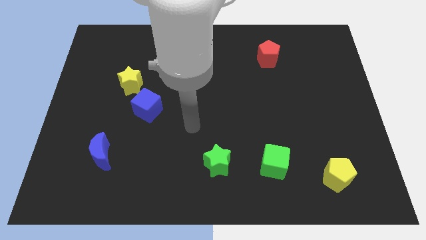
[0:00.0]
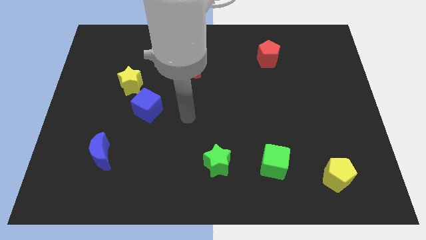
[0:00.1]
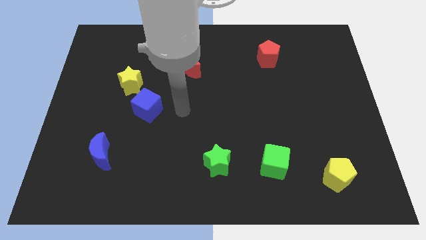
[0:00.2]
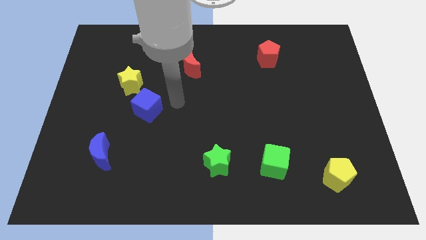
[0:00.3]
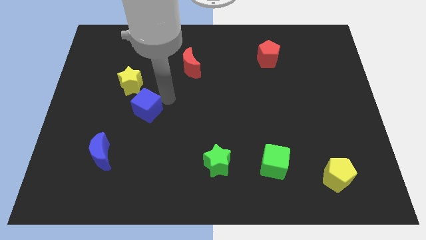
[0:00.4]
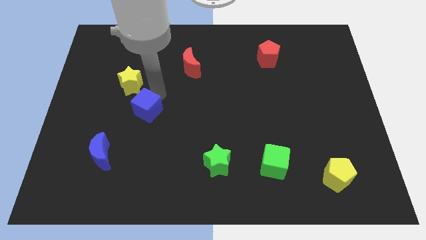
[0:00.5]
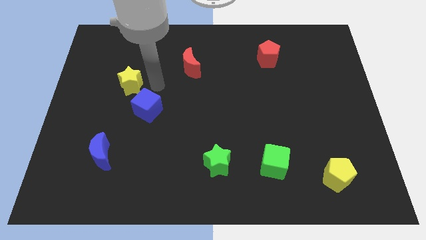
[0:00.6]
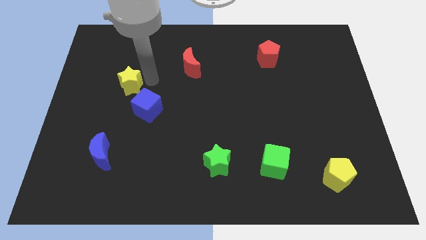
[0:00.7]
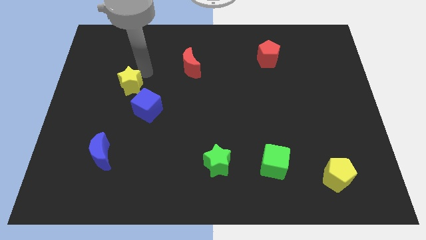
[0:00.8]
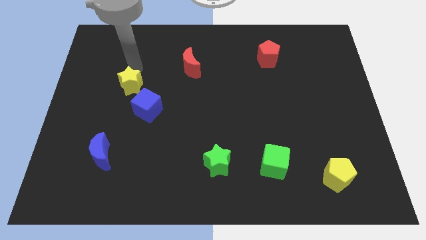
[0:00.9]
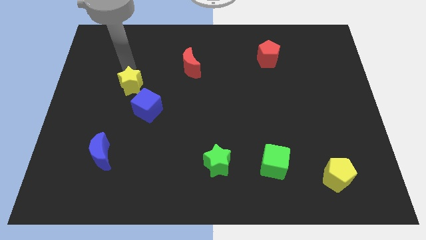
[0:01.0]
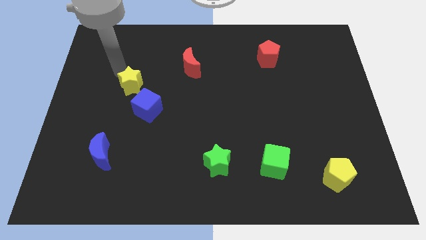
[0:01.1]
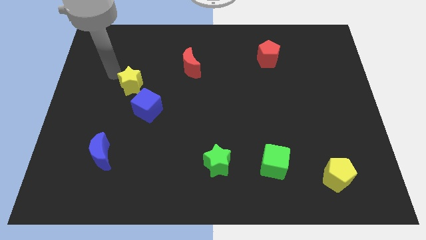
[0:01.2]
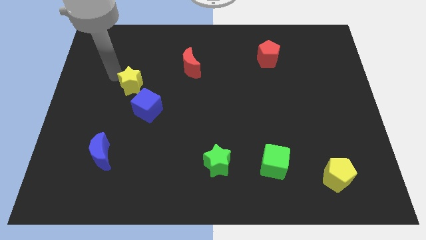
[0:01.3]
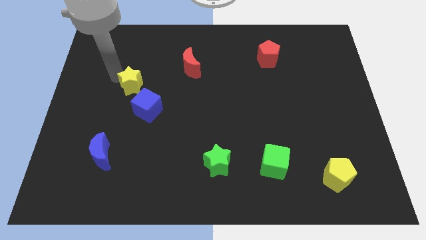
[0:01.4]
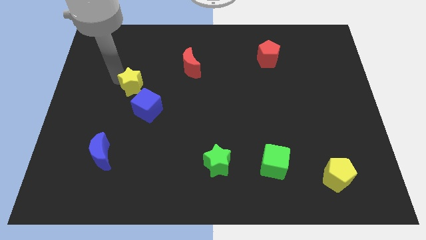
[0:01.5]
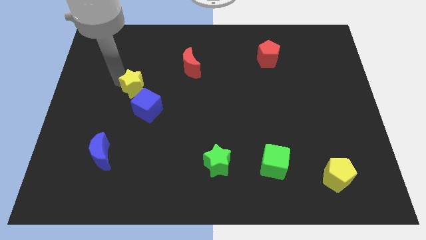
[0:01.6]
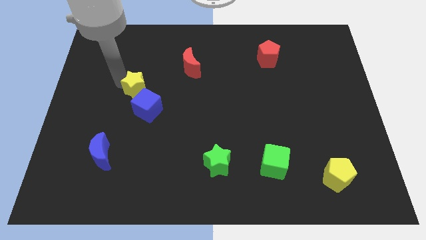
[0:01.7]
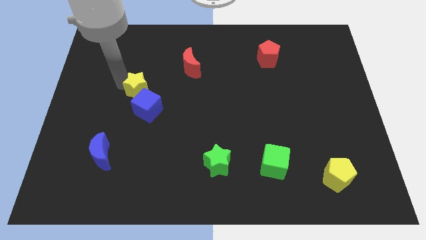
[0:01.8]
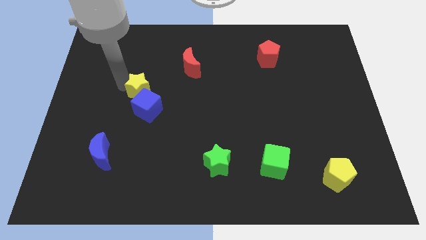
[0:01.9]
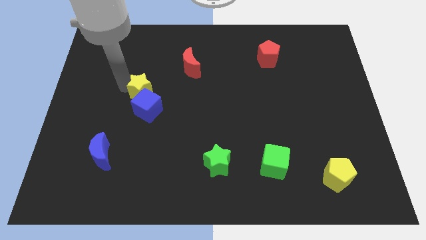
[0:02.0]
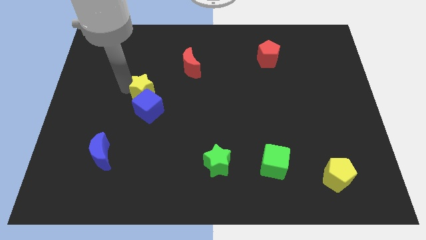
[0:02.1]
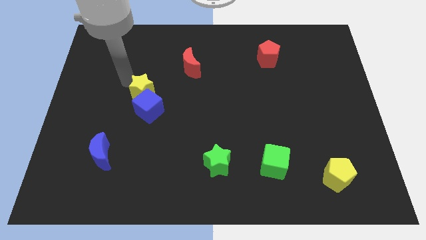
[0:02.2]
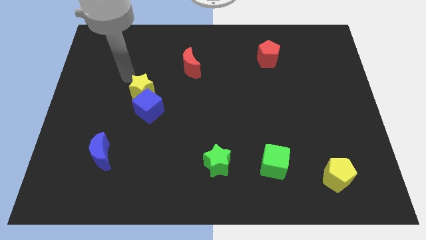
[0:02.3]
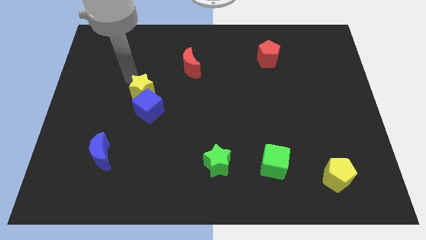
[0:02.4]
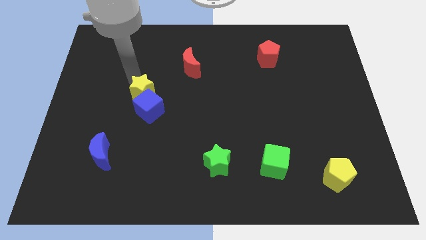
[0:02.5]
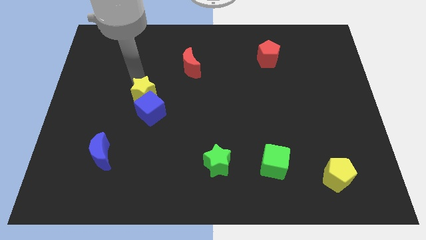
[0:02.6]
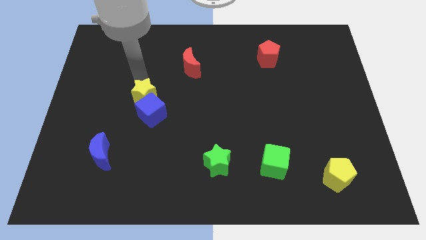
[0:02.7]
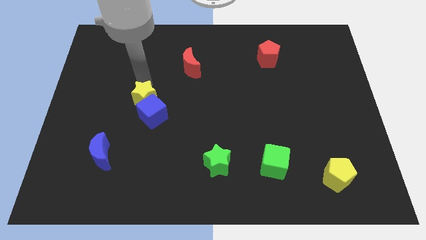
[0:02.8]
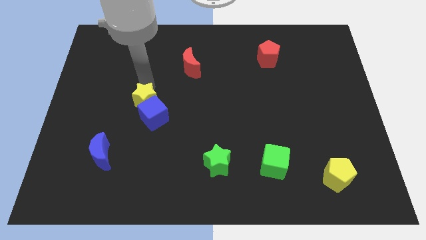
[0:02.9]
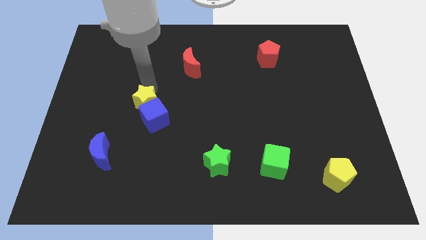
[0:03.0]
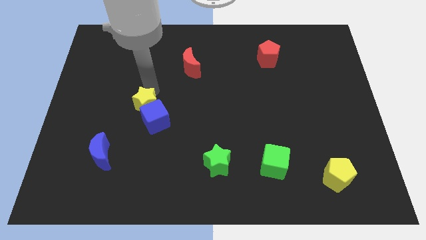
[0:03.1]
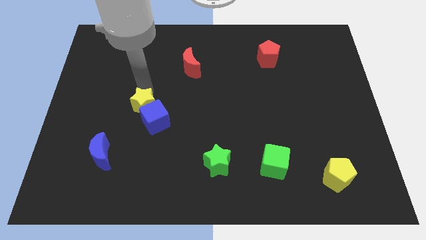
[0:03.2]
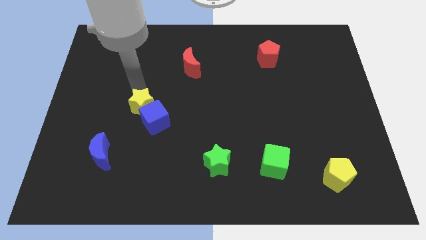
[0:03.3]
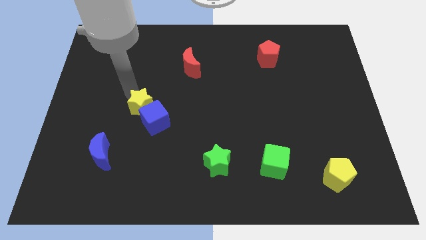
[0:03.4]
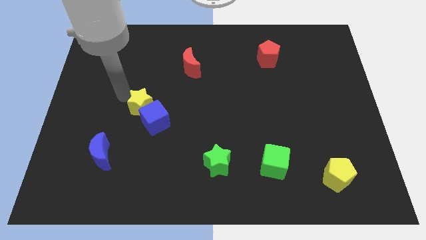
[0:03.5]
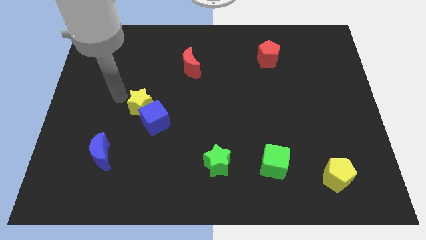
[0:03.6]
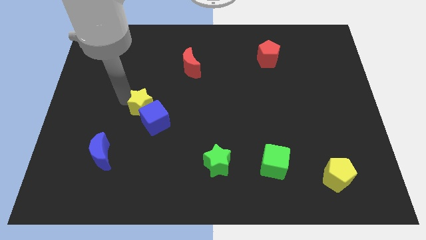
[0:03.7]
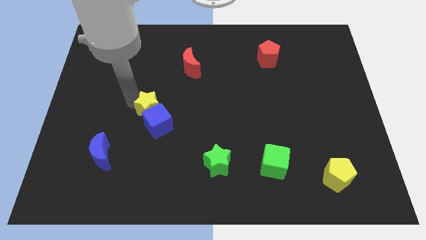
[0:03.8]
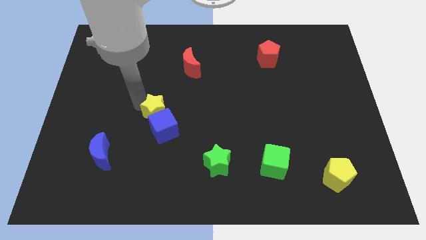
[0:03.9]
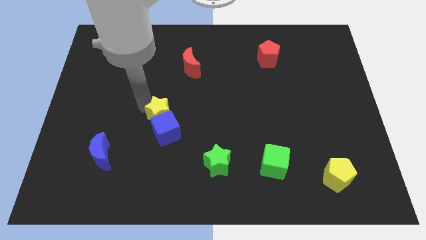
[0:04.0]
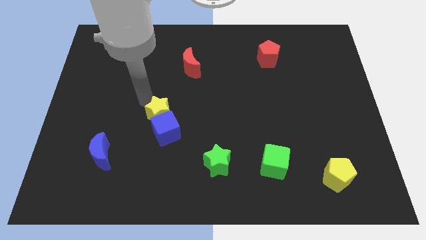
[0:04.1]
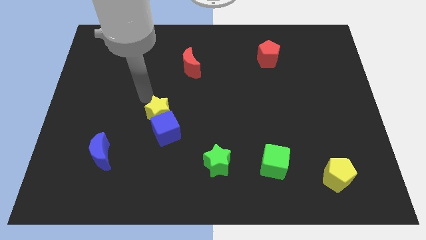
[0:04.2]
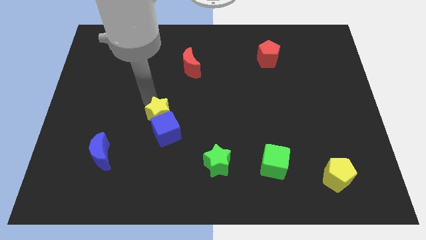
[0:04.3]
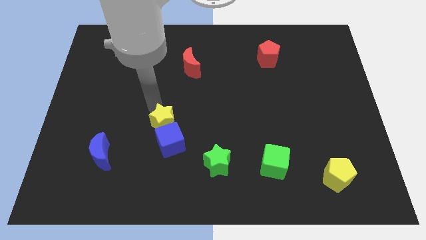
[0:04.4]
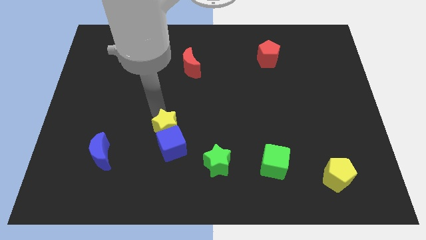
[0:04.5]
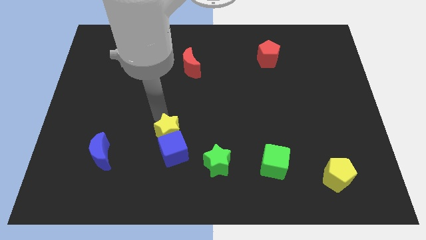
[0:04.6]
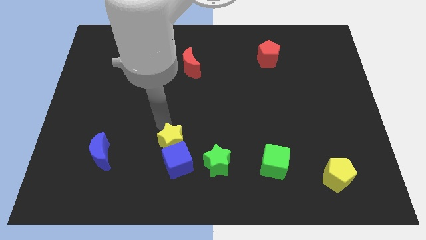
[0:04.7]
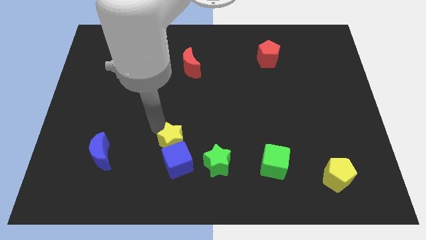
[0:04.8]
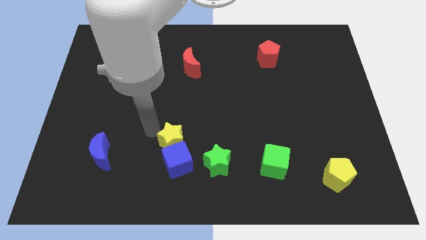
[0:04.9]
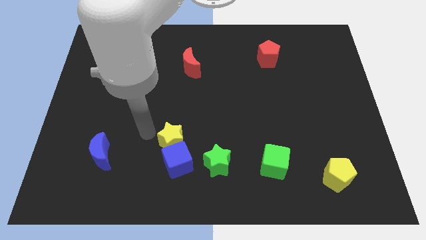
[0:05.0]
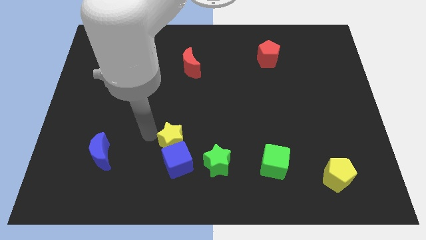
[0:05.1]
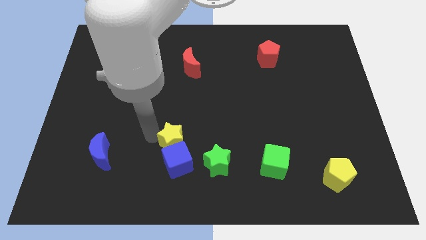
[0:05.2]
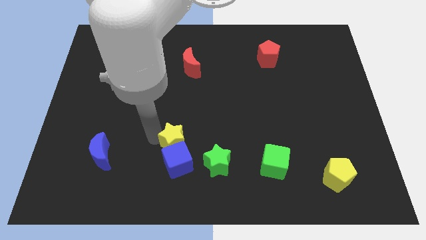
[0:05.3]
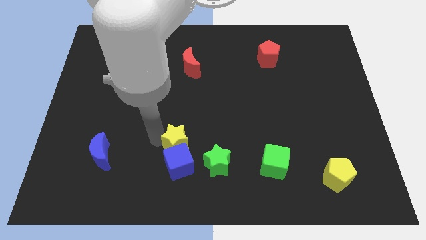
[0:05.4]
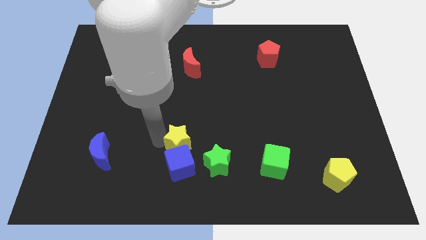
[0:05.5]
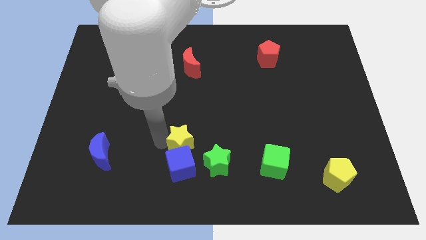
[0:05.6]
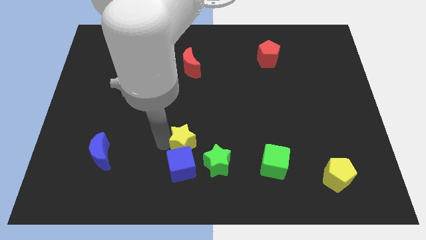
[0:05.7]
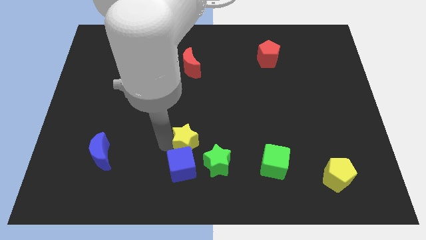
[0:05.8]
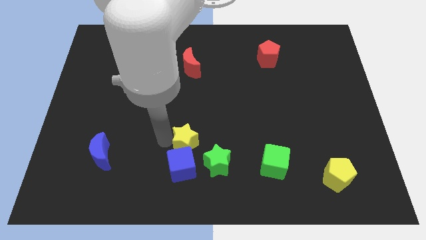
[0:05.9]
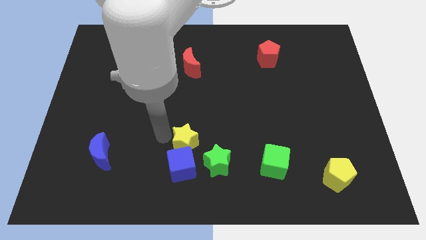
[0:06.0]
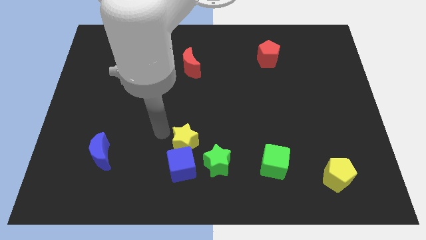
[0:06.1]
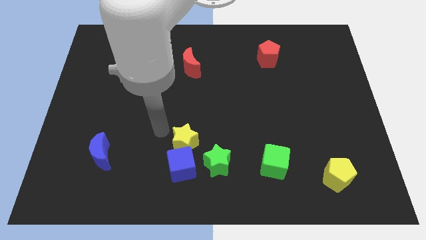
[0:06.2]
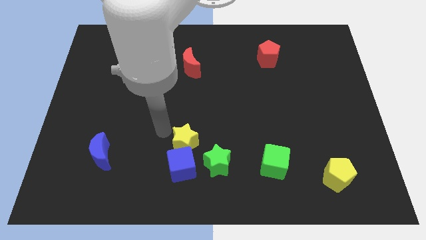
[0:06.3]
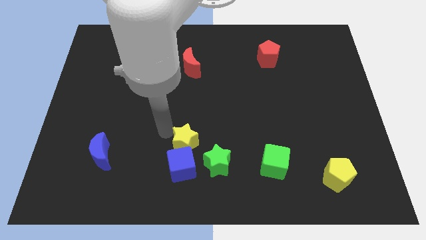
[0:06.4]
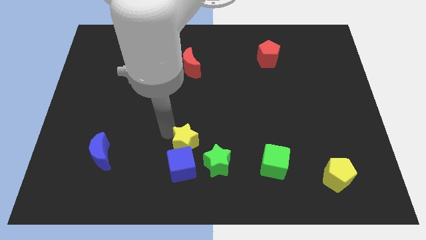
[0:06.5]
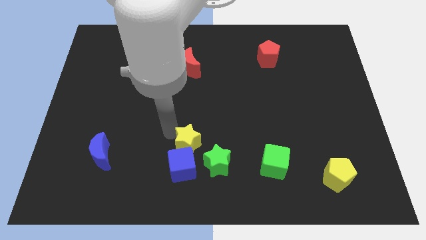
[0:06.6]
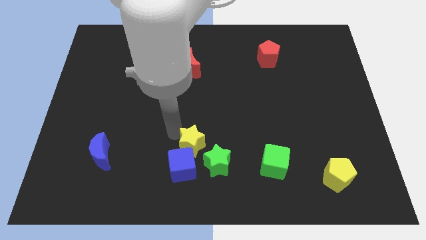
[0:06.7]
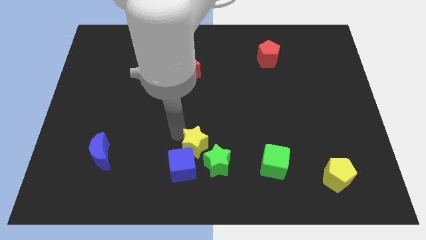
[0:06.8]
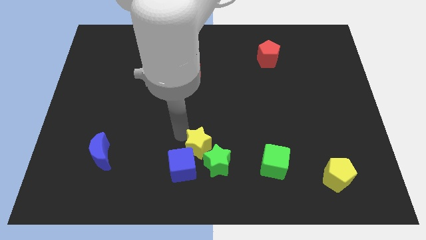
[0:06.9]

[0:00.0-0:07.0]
move the yellow star to the green star

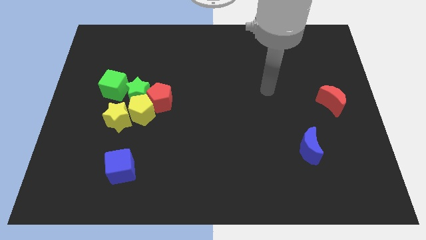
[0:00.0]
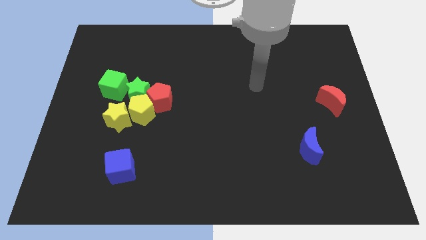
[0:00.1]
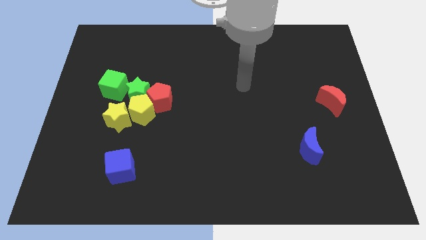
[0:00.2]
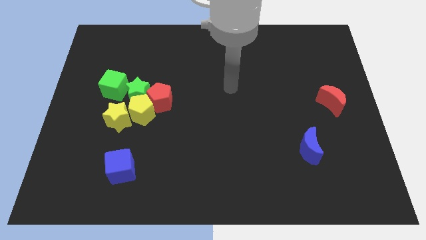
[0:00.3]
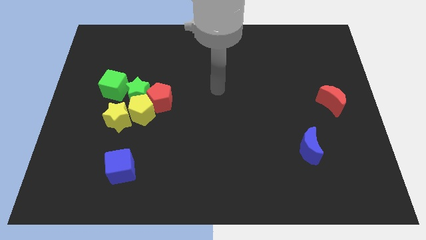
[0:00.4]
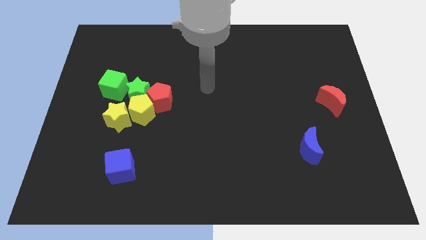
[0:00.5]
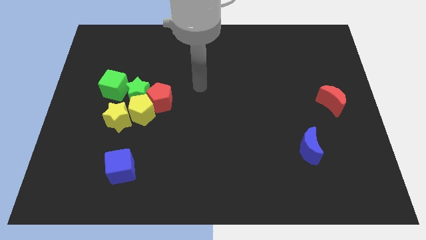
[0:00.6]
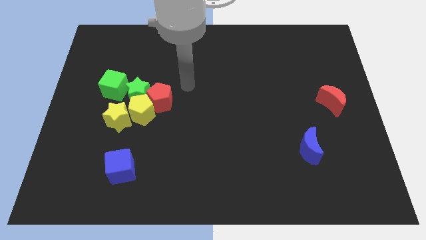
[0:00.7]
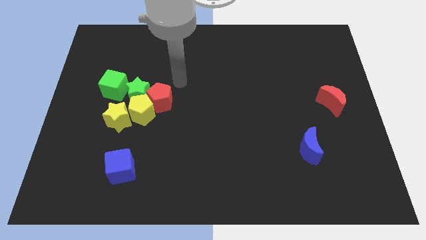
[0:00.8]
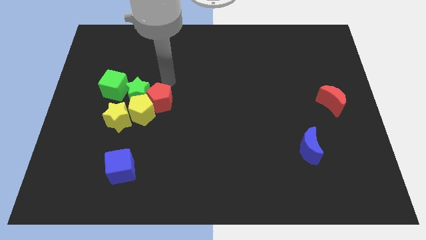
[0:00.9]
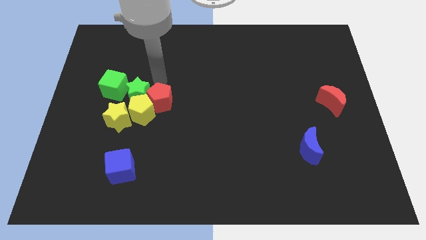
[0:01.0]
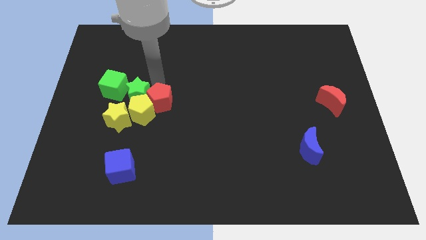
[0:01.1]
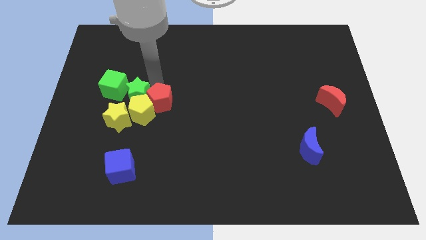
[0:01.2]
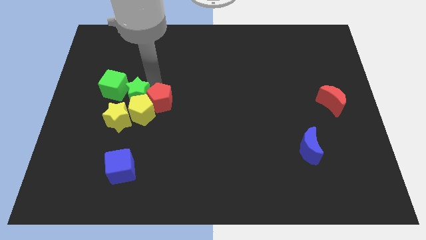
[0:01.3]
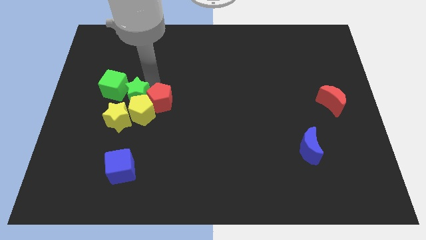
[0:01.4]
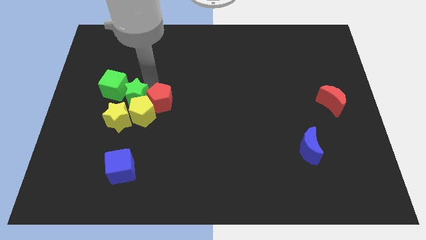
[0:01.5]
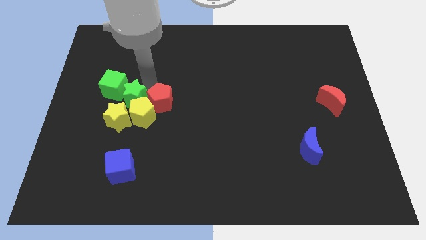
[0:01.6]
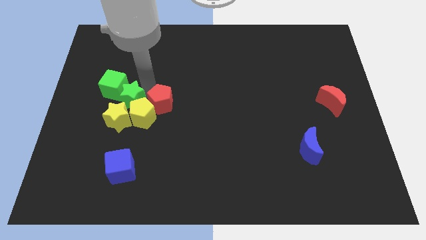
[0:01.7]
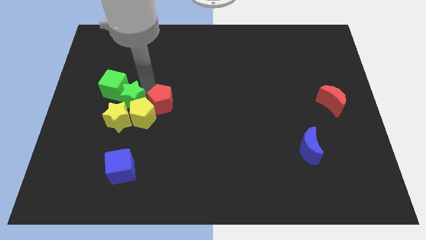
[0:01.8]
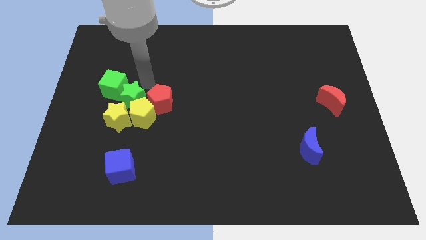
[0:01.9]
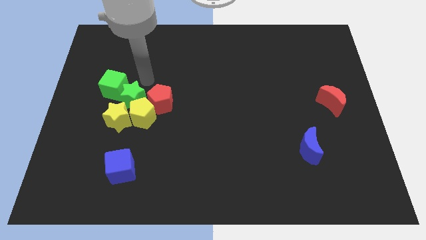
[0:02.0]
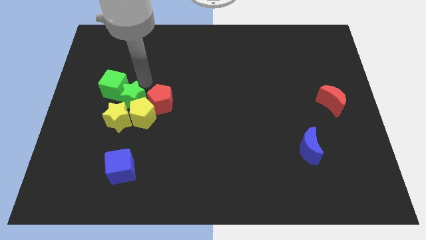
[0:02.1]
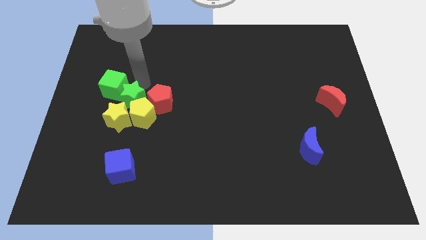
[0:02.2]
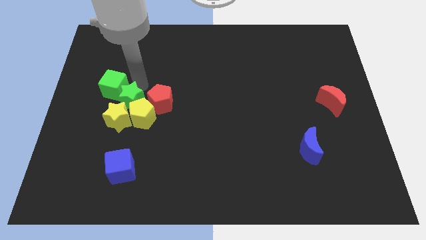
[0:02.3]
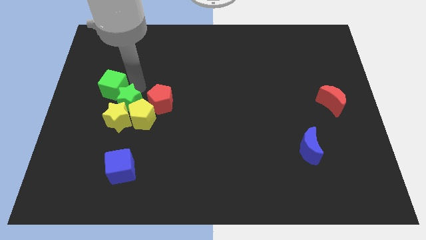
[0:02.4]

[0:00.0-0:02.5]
push the green star close to the yellow star
